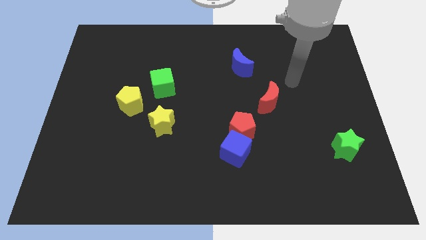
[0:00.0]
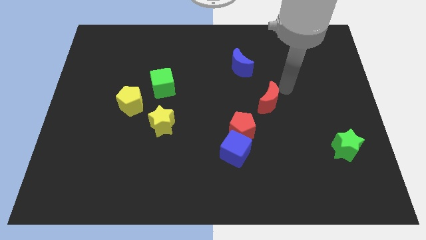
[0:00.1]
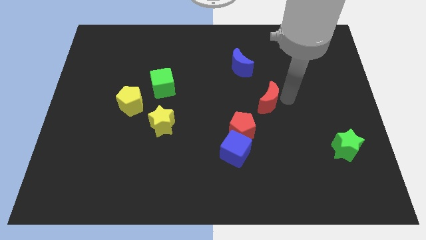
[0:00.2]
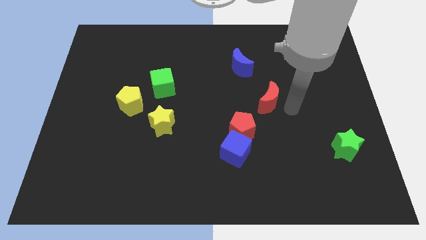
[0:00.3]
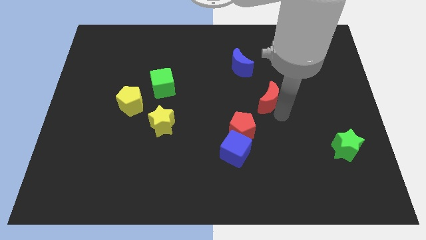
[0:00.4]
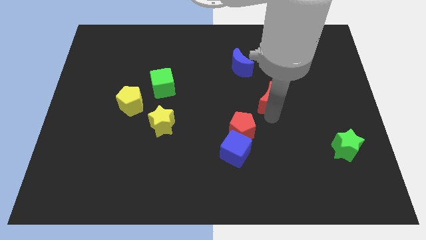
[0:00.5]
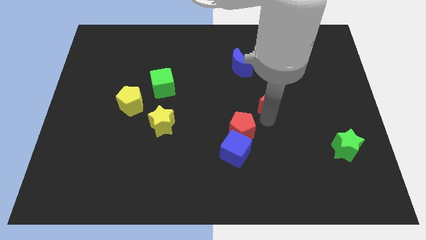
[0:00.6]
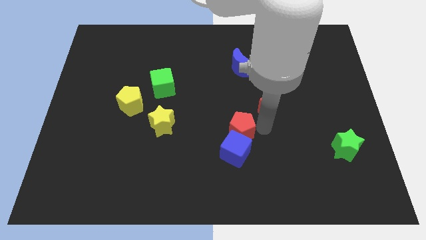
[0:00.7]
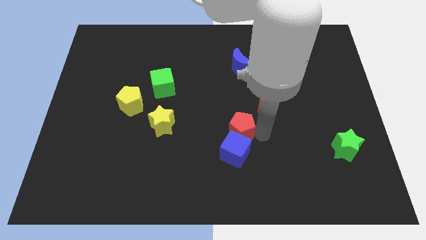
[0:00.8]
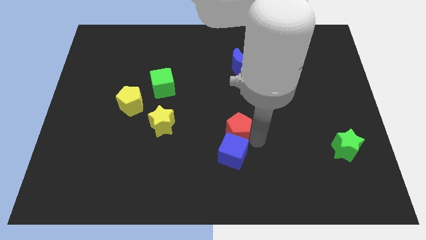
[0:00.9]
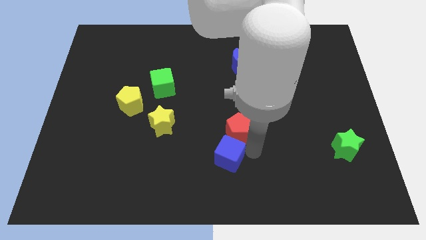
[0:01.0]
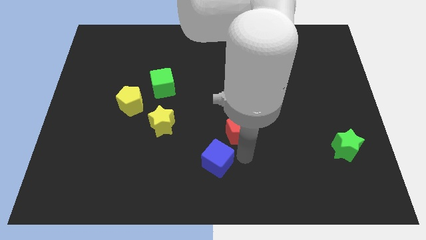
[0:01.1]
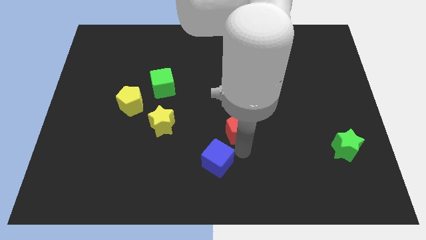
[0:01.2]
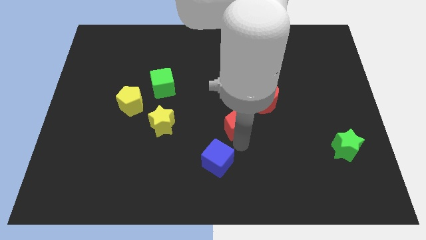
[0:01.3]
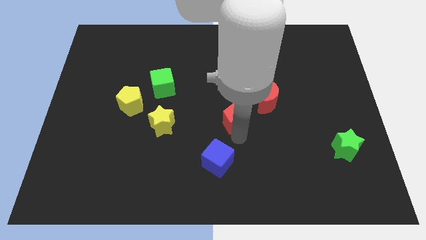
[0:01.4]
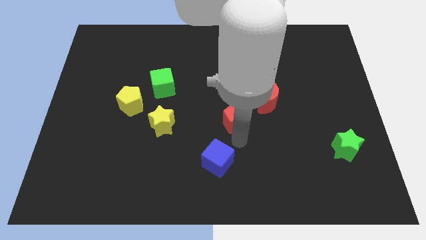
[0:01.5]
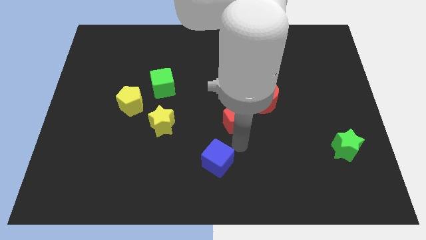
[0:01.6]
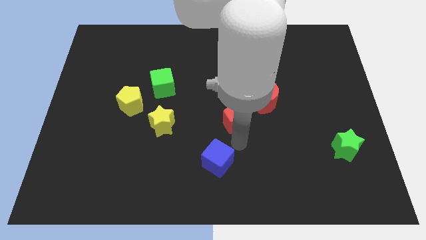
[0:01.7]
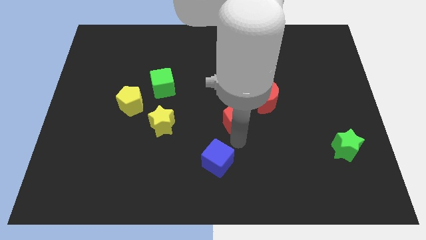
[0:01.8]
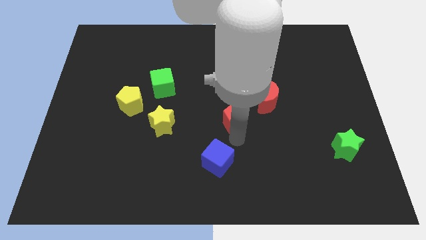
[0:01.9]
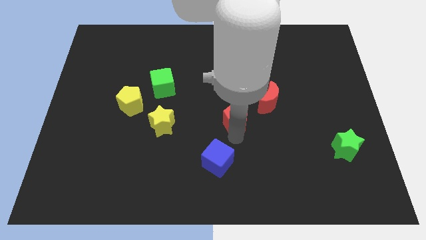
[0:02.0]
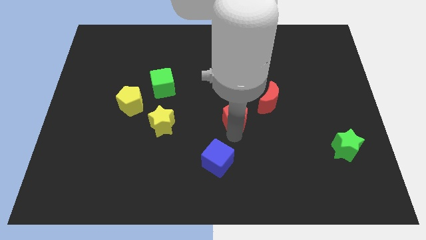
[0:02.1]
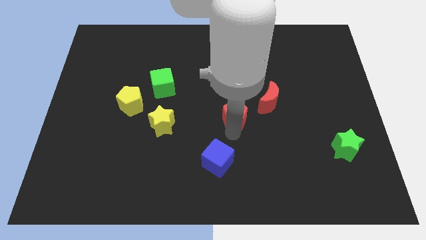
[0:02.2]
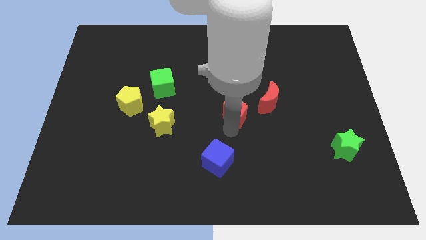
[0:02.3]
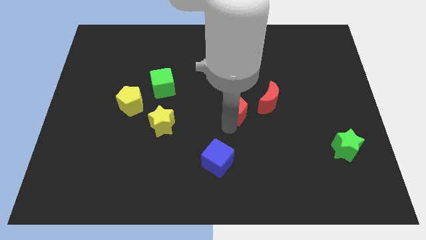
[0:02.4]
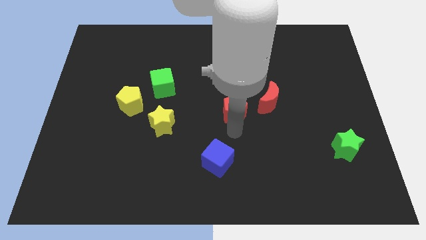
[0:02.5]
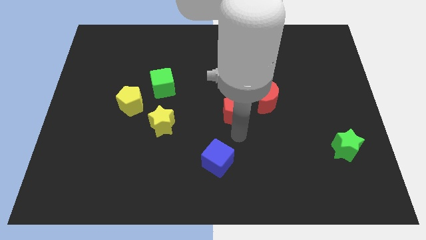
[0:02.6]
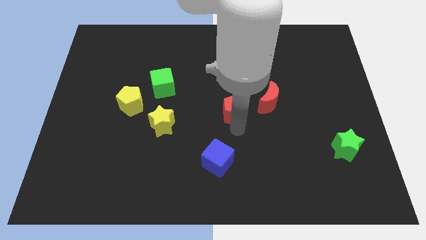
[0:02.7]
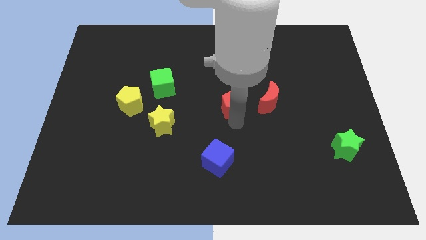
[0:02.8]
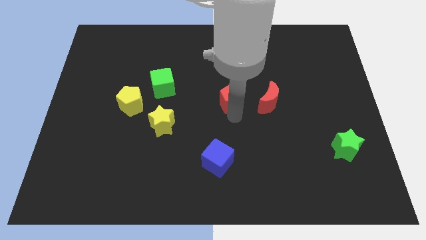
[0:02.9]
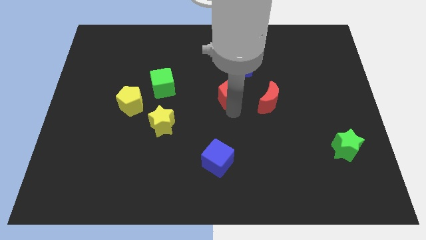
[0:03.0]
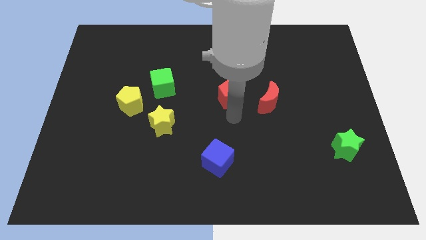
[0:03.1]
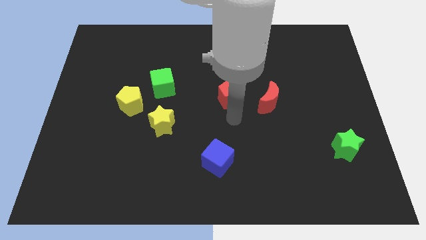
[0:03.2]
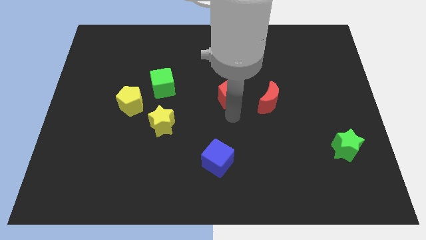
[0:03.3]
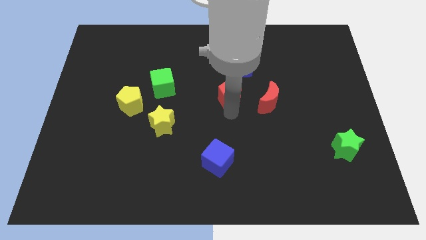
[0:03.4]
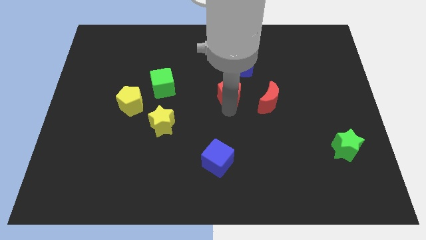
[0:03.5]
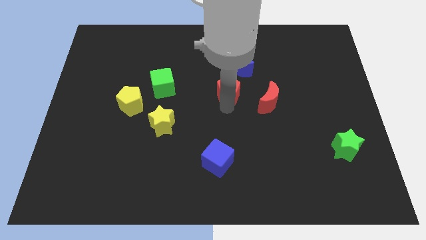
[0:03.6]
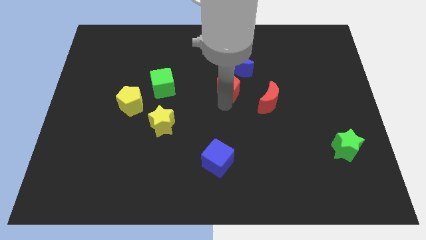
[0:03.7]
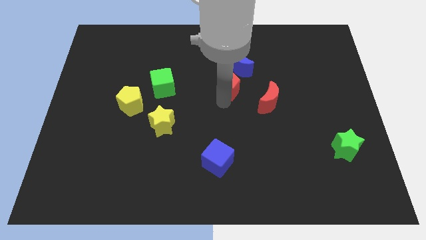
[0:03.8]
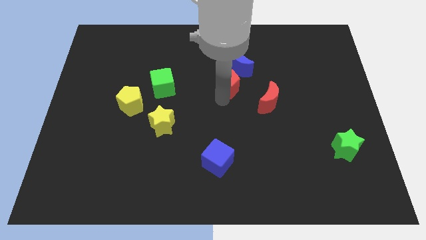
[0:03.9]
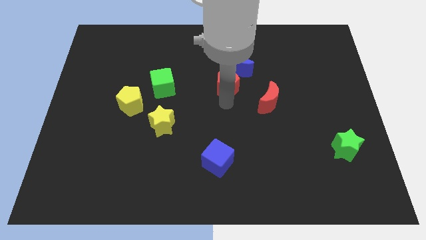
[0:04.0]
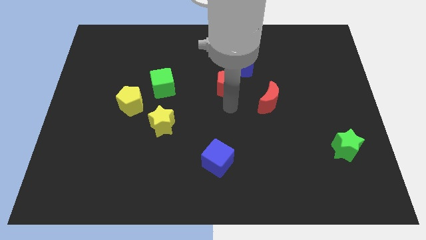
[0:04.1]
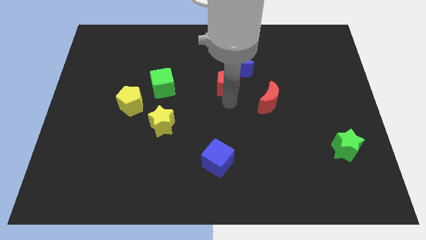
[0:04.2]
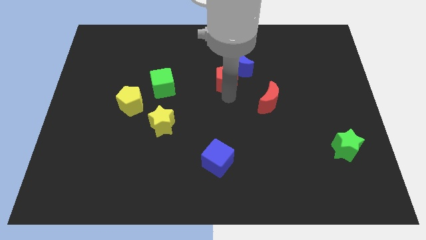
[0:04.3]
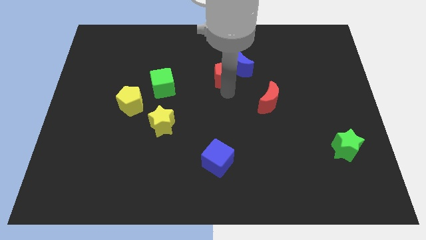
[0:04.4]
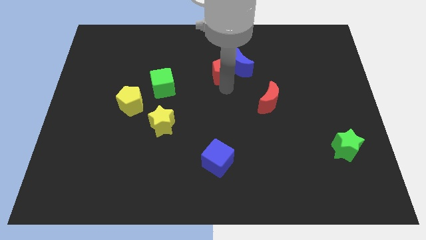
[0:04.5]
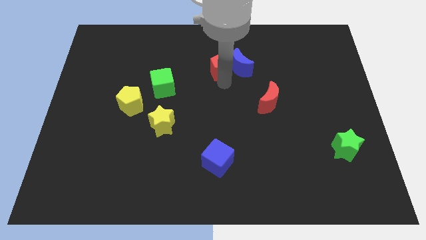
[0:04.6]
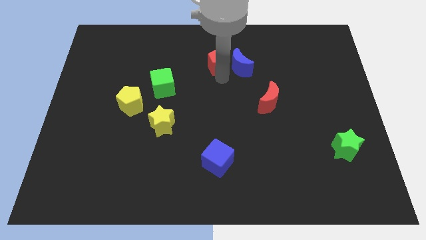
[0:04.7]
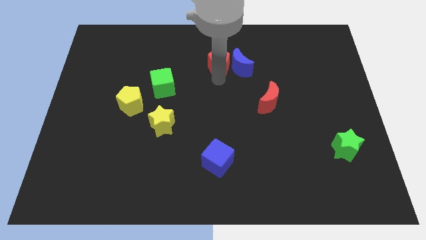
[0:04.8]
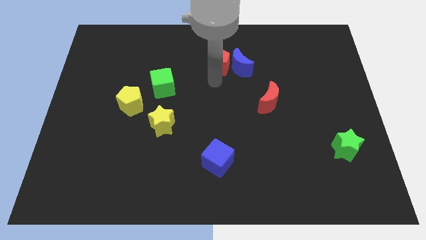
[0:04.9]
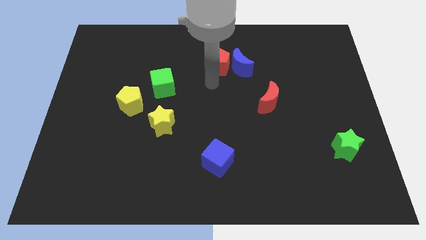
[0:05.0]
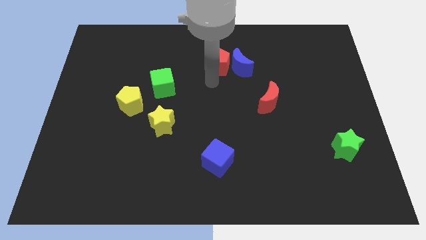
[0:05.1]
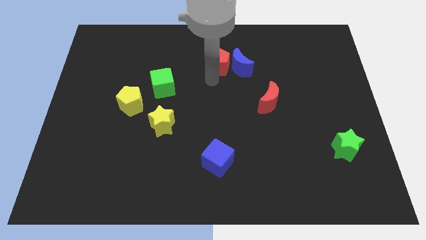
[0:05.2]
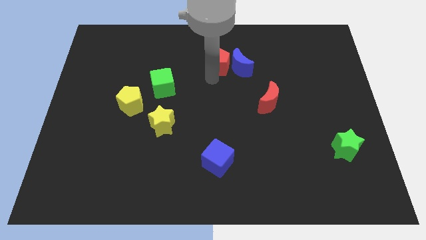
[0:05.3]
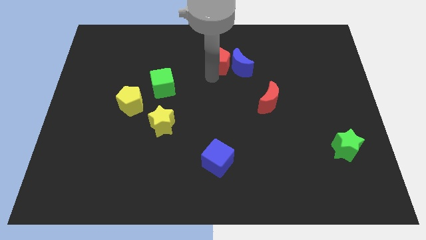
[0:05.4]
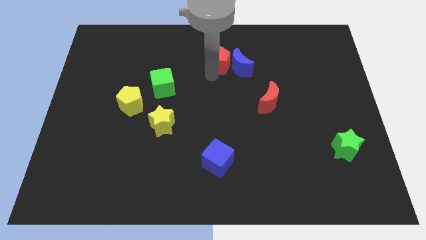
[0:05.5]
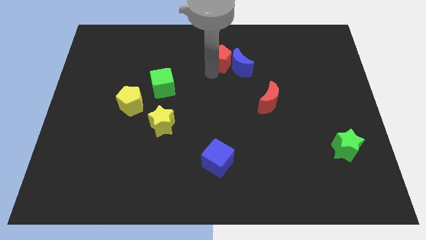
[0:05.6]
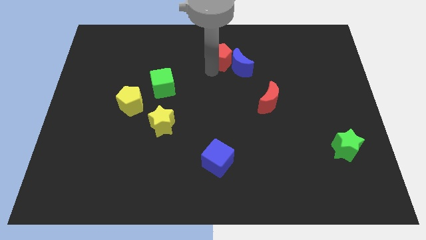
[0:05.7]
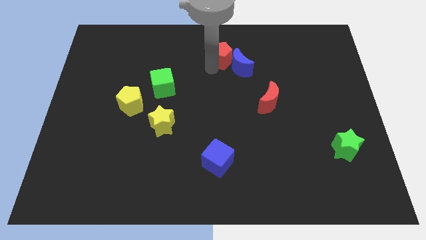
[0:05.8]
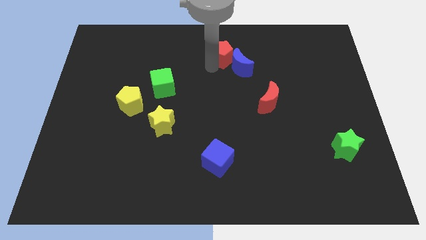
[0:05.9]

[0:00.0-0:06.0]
push the red pentagon to the towards your base
